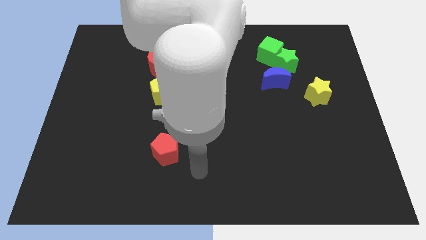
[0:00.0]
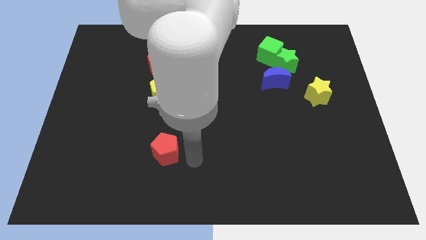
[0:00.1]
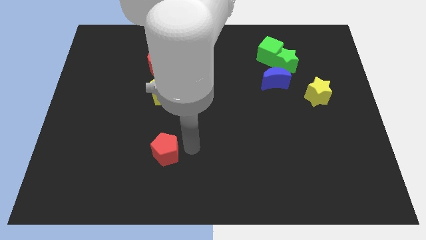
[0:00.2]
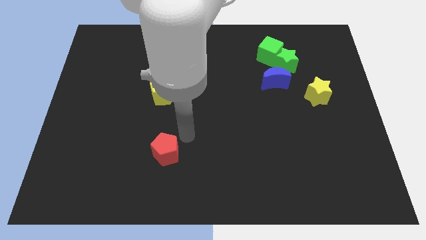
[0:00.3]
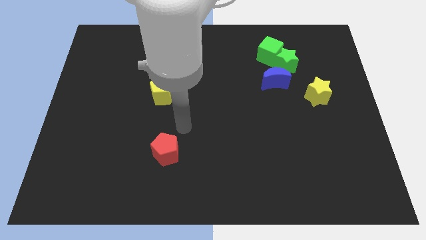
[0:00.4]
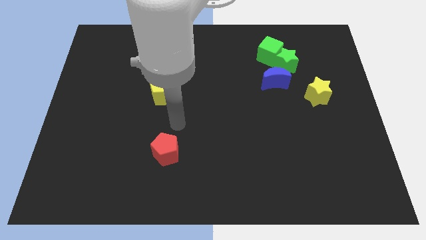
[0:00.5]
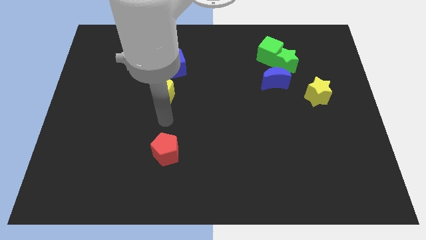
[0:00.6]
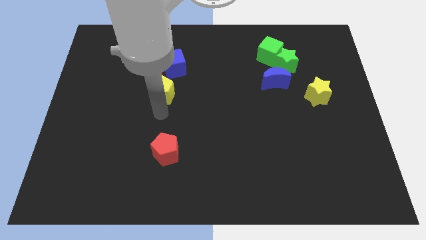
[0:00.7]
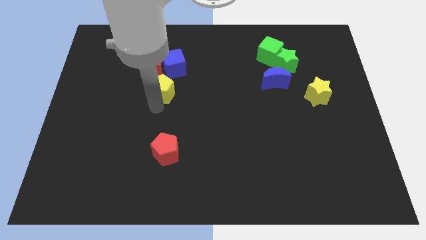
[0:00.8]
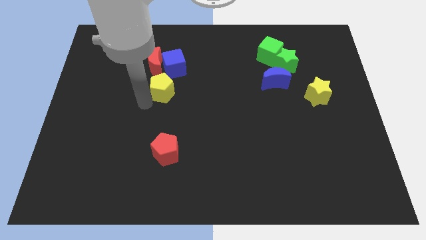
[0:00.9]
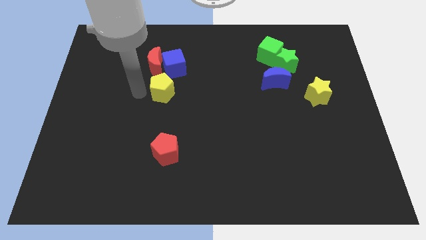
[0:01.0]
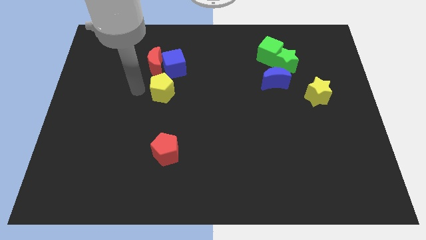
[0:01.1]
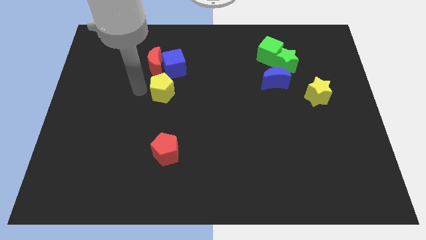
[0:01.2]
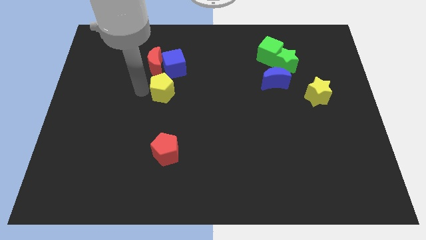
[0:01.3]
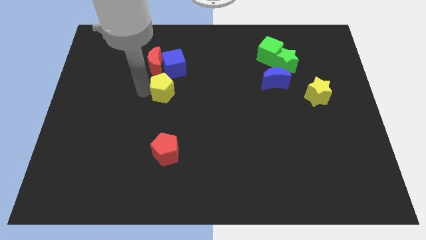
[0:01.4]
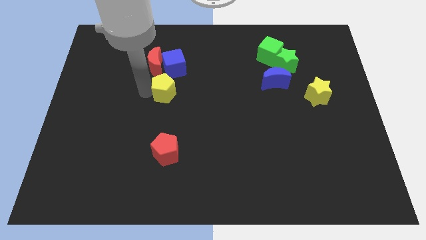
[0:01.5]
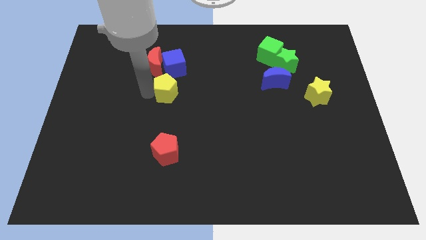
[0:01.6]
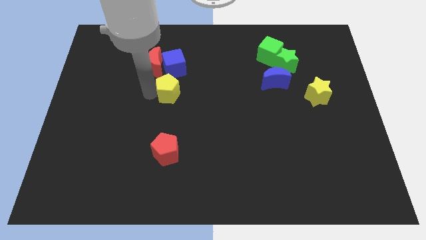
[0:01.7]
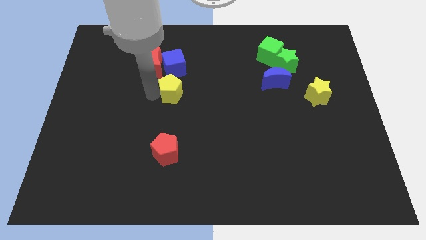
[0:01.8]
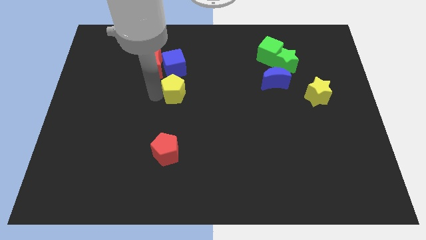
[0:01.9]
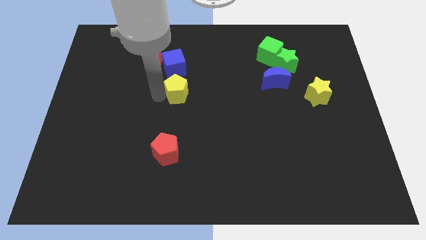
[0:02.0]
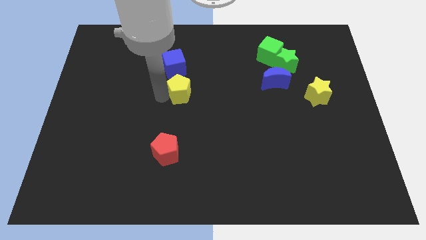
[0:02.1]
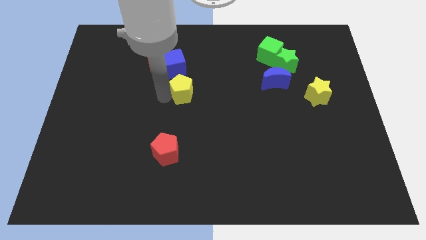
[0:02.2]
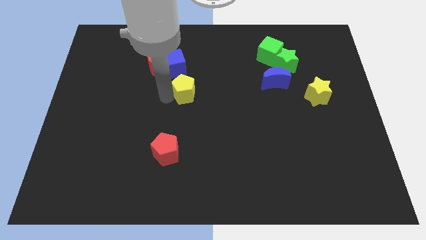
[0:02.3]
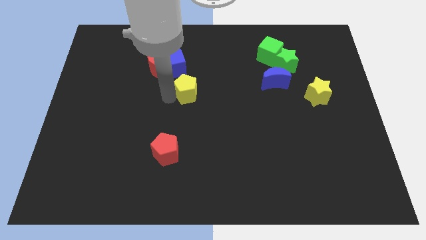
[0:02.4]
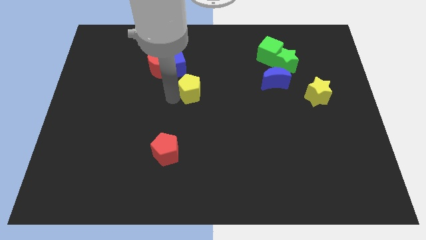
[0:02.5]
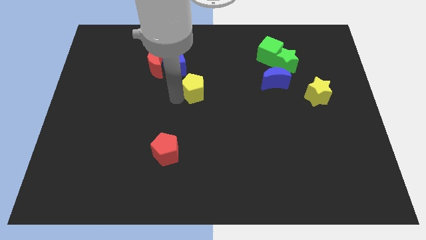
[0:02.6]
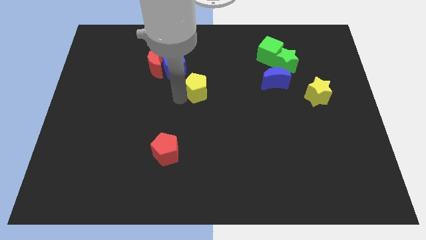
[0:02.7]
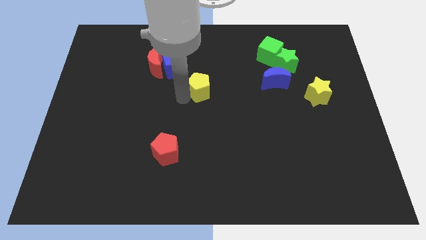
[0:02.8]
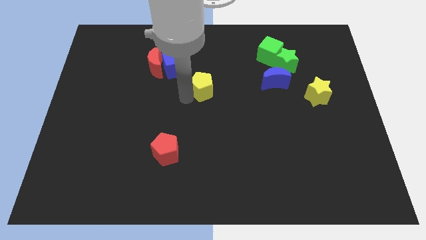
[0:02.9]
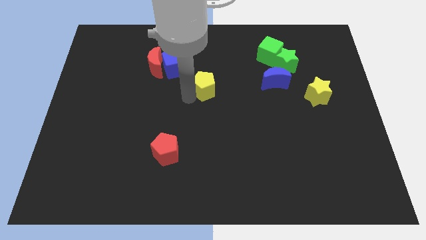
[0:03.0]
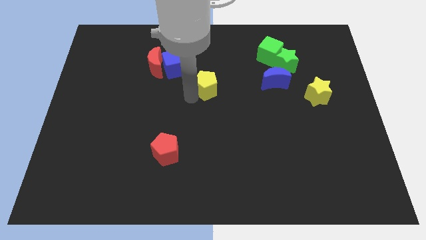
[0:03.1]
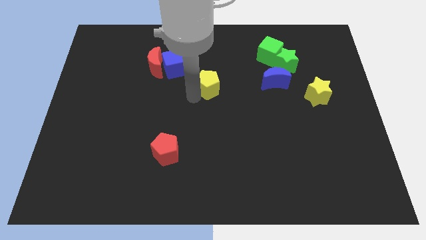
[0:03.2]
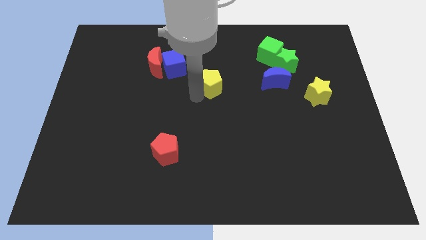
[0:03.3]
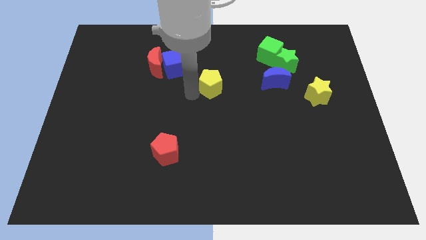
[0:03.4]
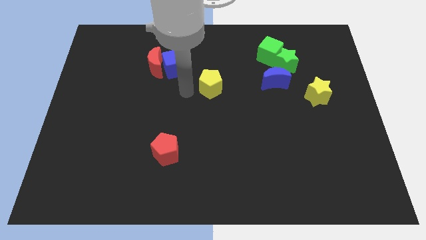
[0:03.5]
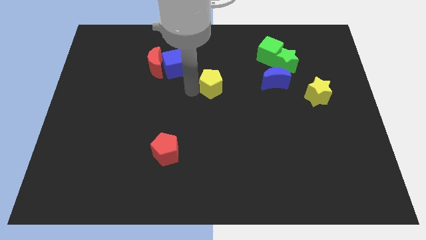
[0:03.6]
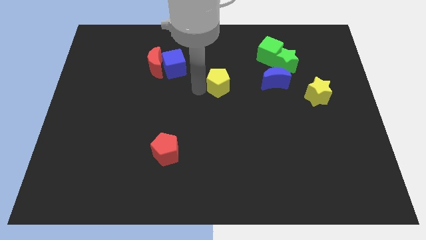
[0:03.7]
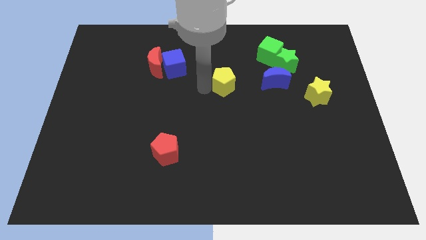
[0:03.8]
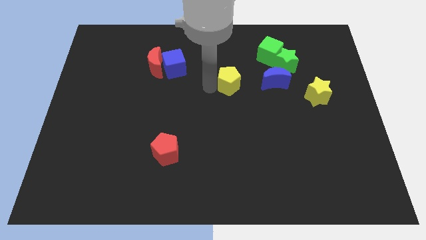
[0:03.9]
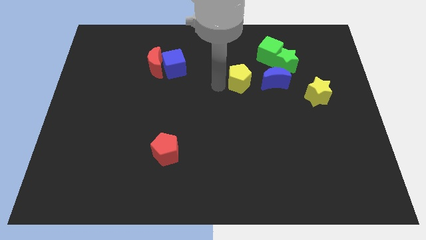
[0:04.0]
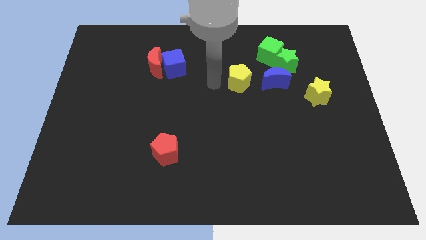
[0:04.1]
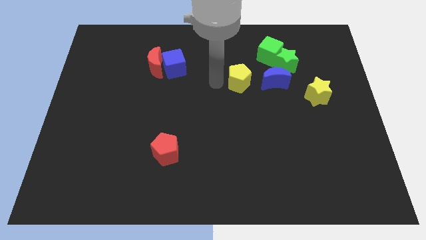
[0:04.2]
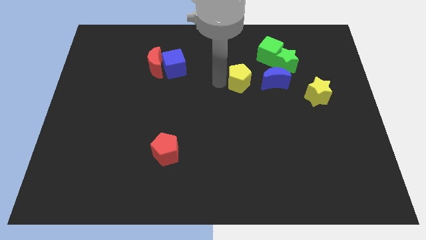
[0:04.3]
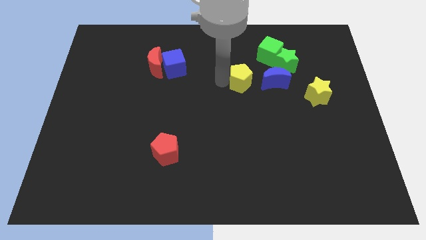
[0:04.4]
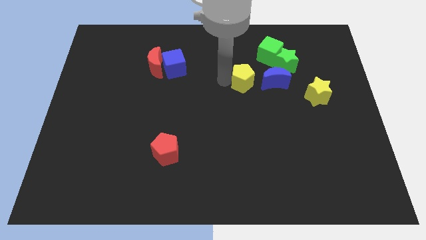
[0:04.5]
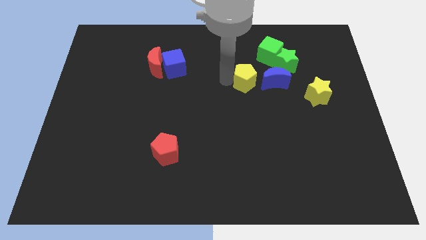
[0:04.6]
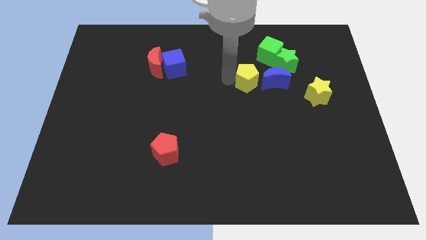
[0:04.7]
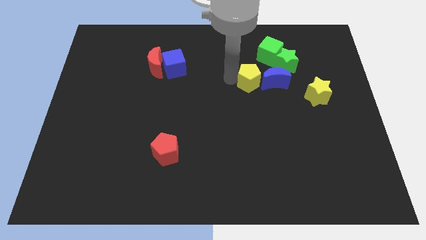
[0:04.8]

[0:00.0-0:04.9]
move the yellow pentagon close to the blue moon

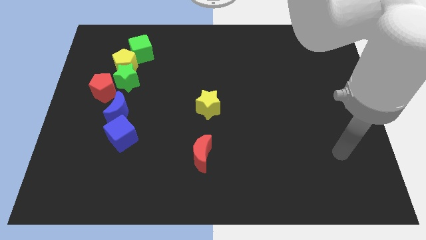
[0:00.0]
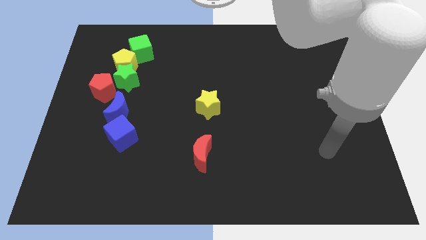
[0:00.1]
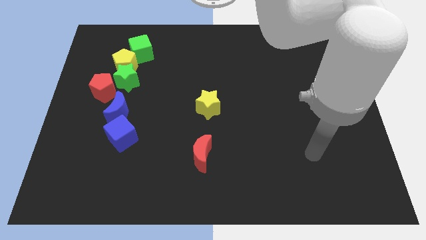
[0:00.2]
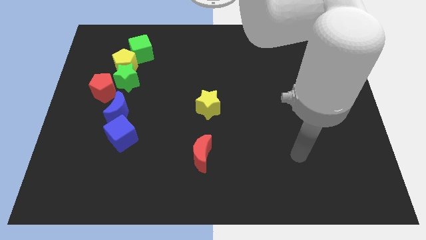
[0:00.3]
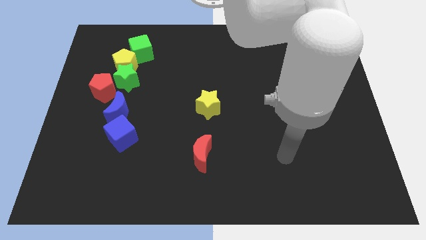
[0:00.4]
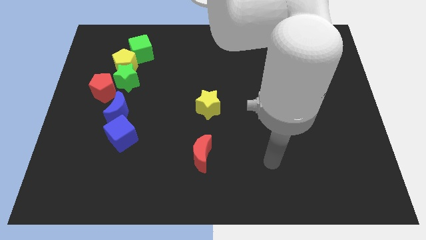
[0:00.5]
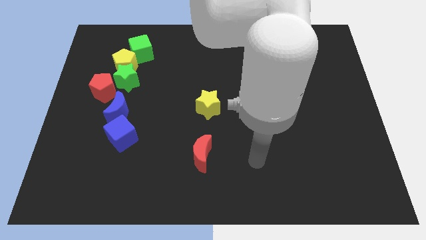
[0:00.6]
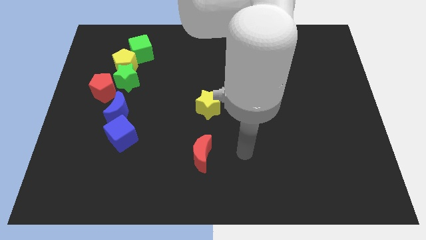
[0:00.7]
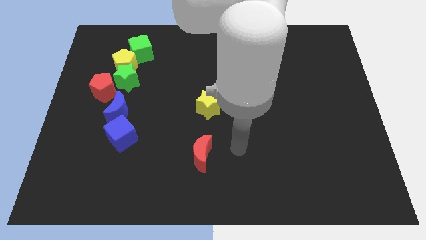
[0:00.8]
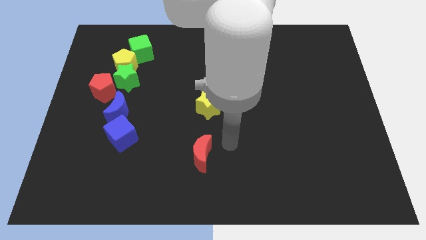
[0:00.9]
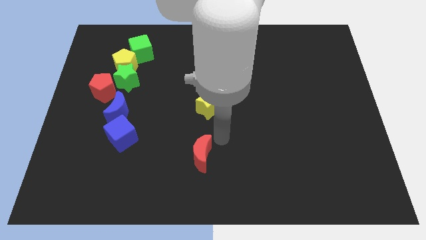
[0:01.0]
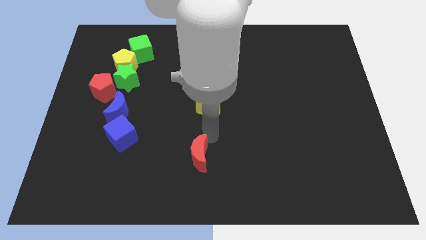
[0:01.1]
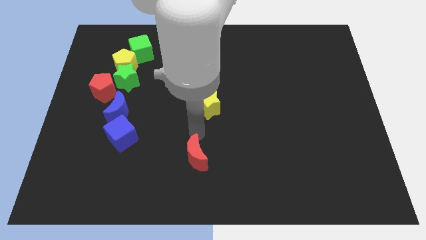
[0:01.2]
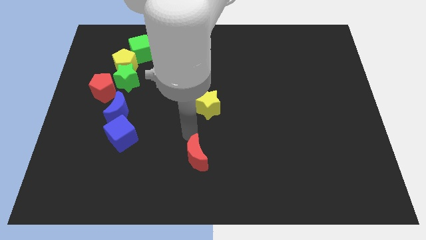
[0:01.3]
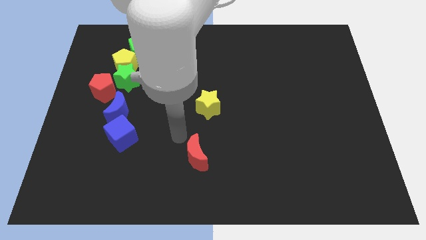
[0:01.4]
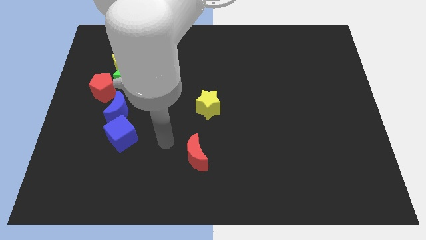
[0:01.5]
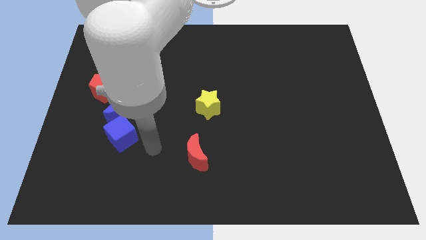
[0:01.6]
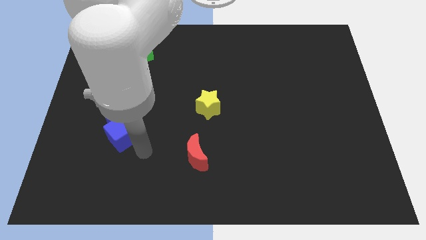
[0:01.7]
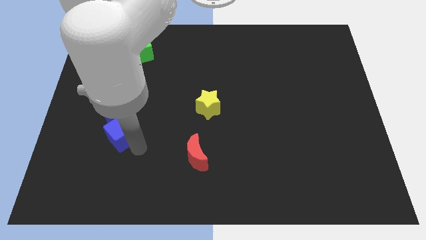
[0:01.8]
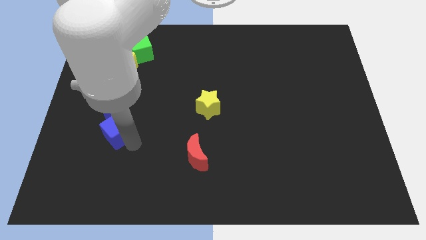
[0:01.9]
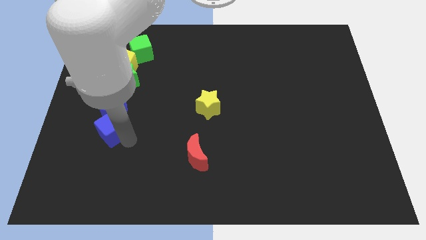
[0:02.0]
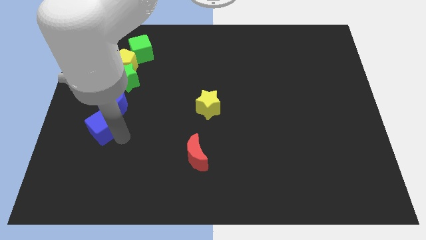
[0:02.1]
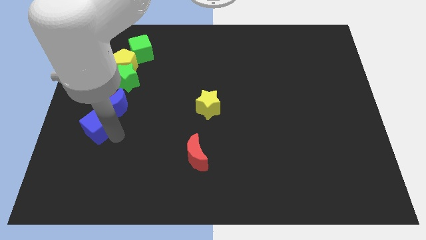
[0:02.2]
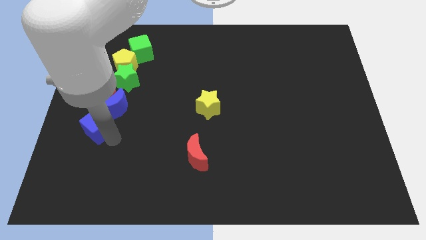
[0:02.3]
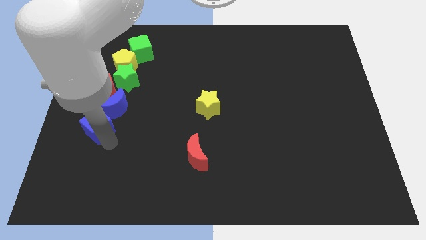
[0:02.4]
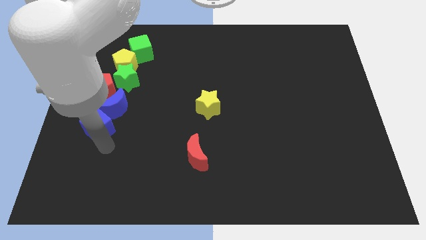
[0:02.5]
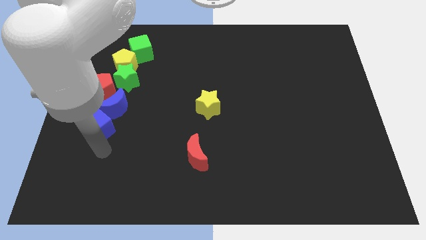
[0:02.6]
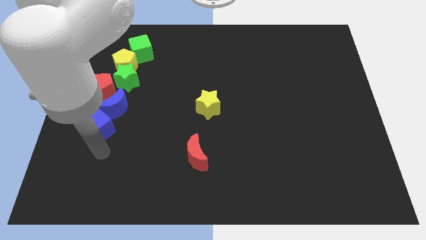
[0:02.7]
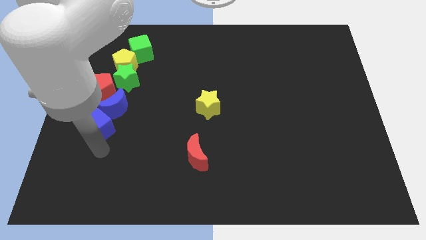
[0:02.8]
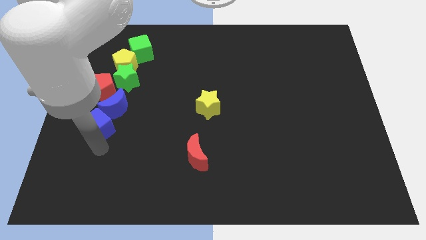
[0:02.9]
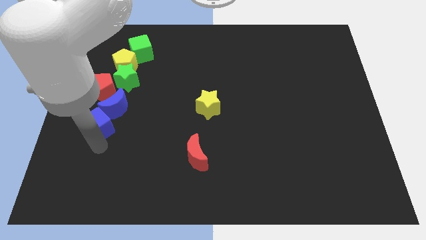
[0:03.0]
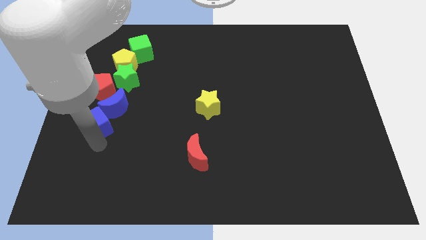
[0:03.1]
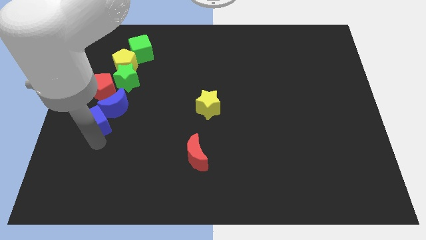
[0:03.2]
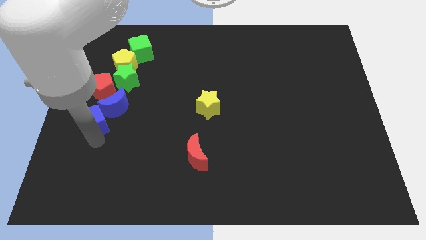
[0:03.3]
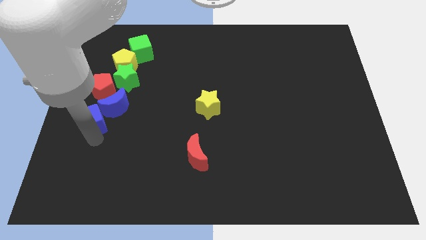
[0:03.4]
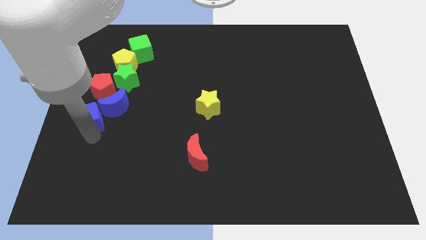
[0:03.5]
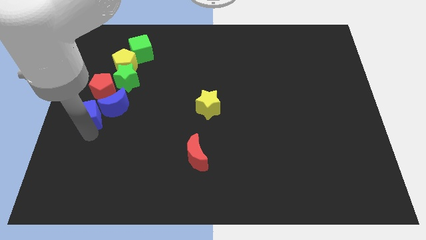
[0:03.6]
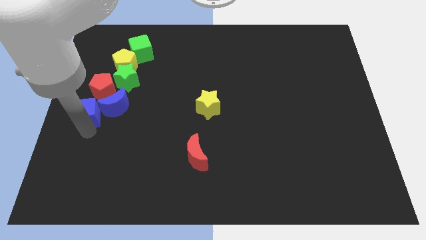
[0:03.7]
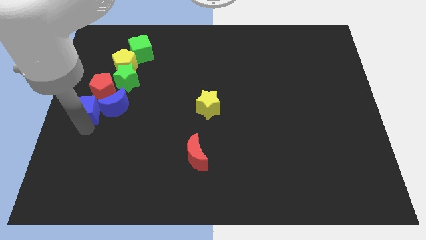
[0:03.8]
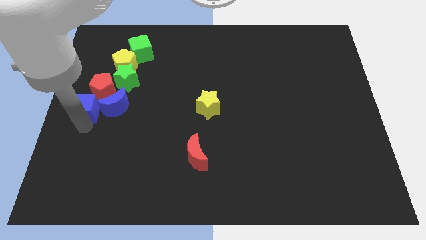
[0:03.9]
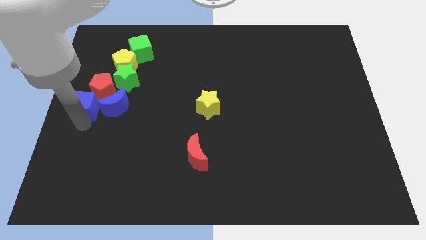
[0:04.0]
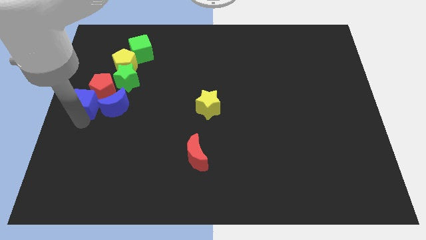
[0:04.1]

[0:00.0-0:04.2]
slide the blue cube close to the red pentagon
